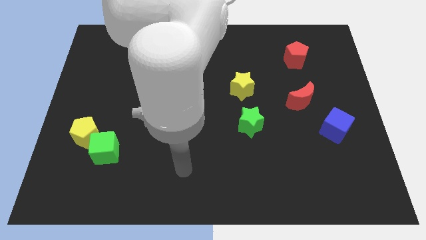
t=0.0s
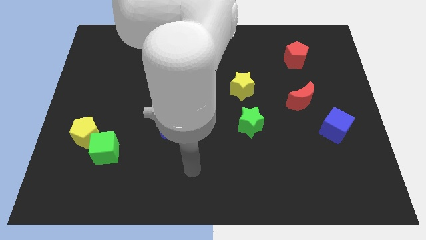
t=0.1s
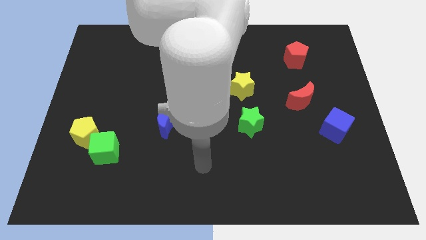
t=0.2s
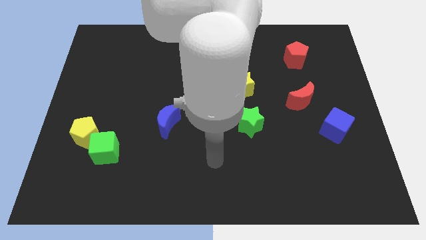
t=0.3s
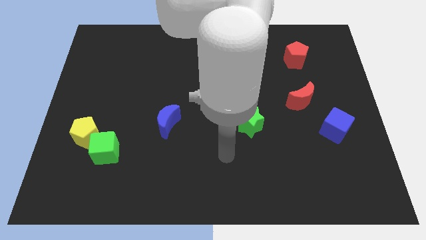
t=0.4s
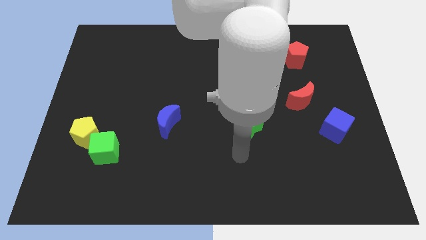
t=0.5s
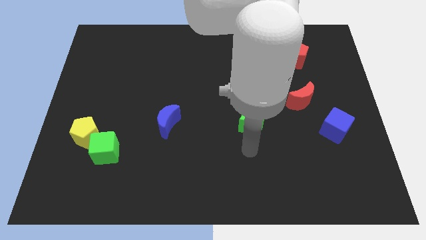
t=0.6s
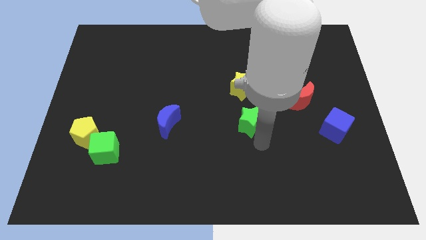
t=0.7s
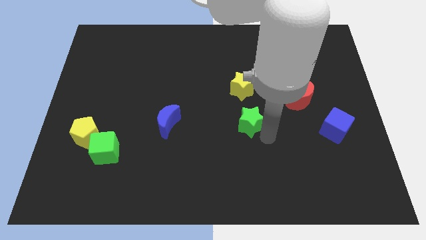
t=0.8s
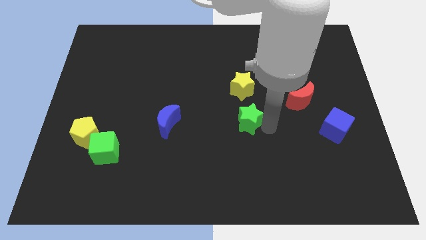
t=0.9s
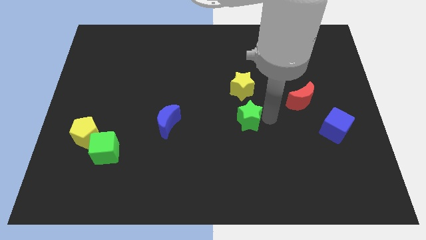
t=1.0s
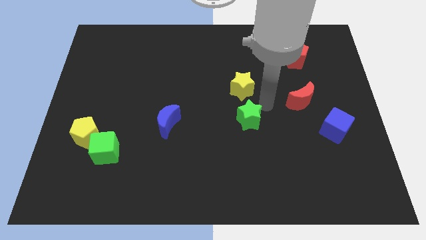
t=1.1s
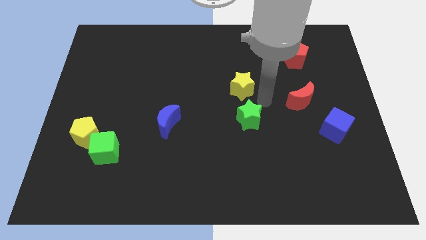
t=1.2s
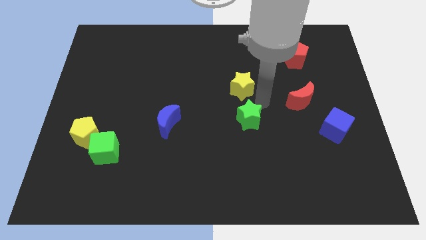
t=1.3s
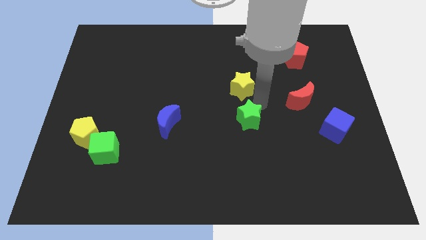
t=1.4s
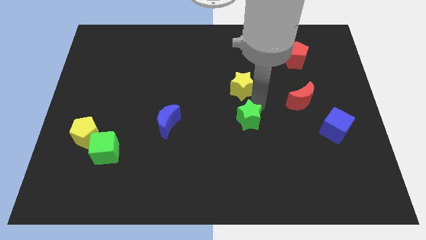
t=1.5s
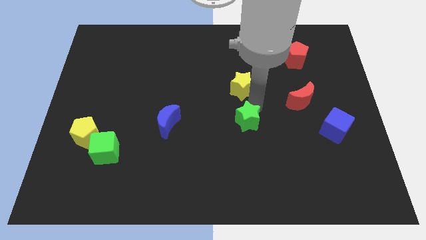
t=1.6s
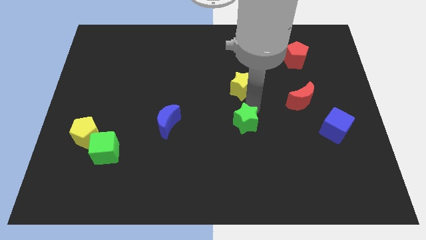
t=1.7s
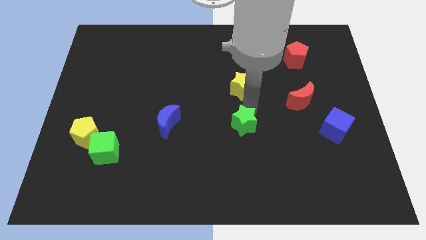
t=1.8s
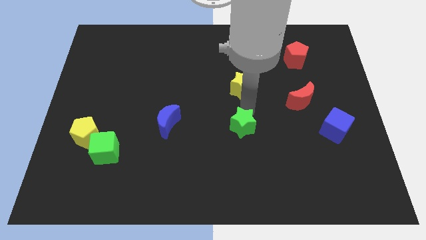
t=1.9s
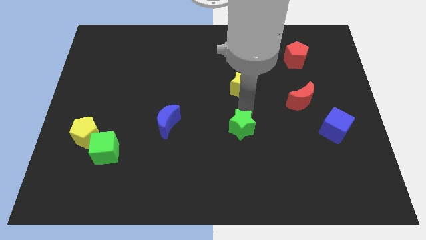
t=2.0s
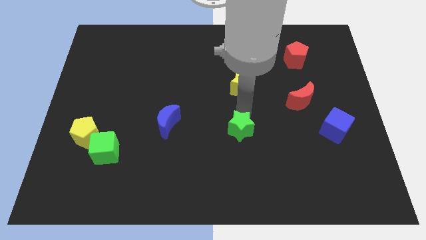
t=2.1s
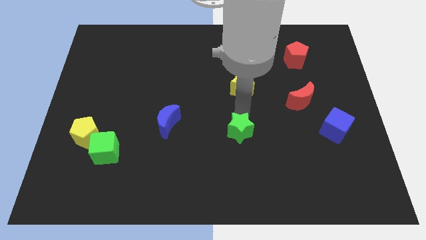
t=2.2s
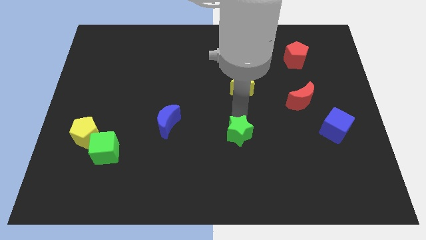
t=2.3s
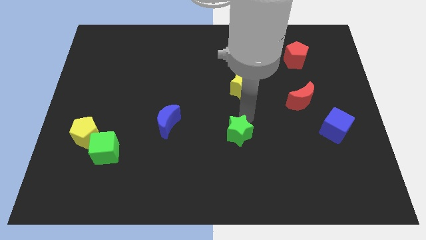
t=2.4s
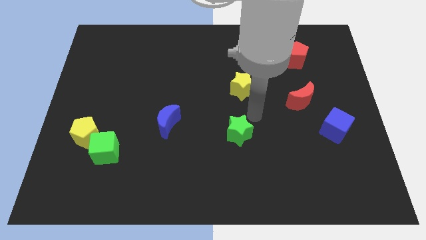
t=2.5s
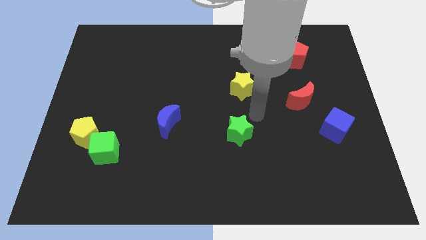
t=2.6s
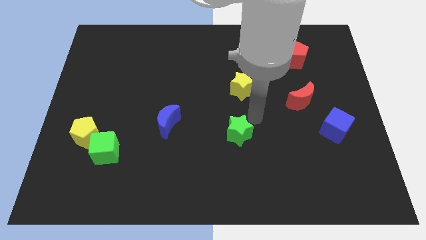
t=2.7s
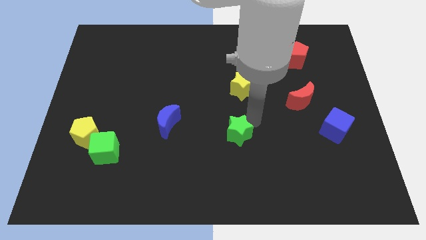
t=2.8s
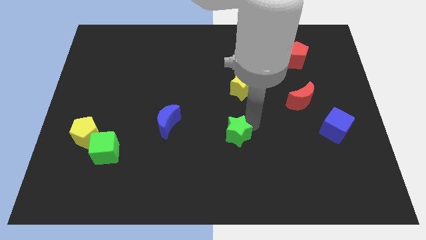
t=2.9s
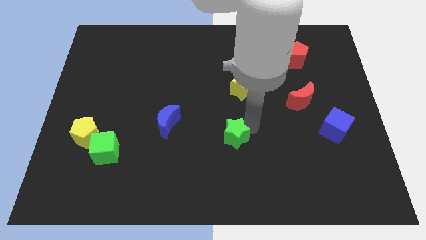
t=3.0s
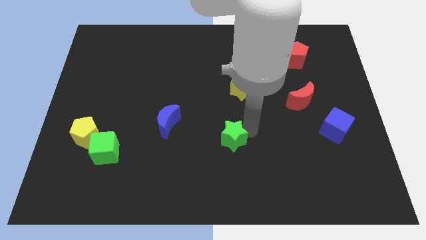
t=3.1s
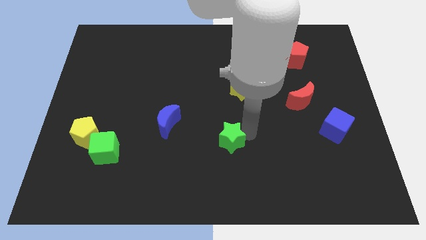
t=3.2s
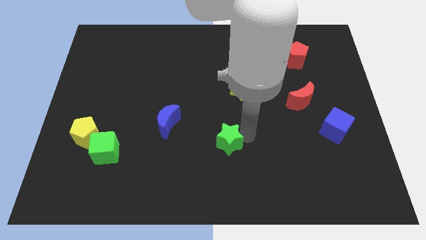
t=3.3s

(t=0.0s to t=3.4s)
push the green star down and to the left diagonally slightly

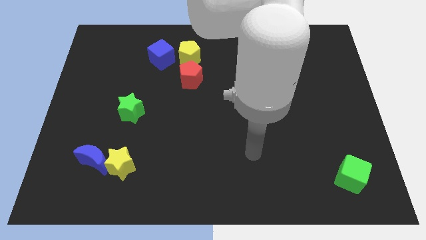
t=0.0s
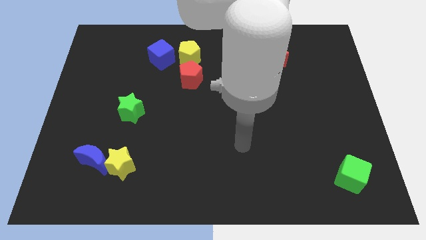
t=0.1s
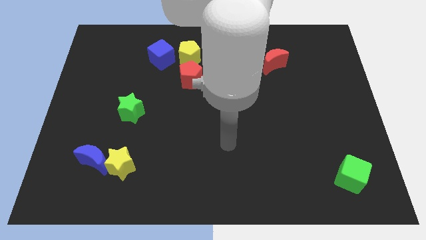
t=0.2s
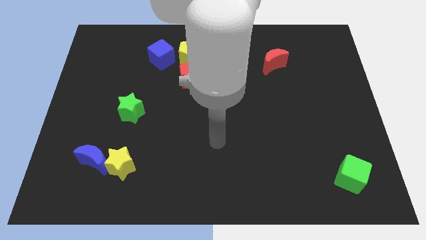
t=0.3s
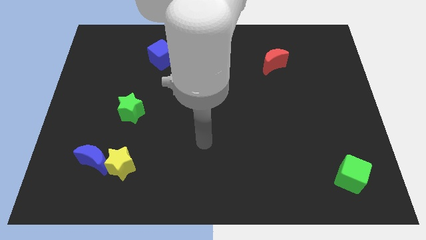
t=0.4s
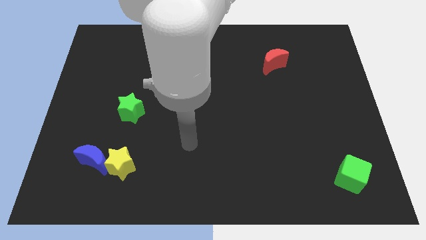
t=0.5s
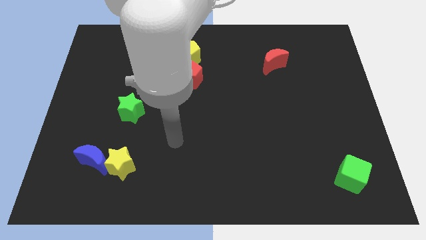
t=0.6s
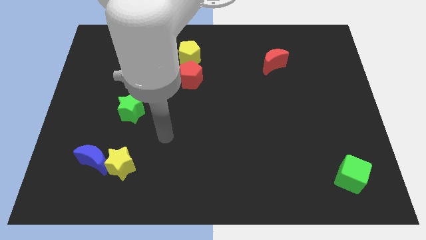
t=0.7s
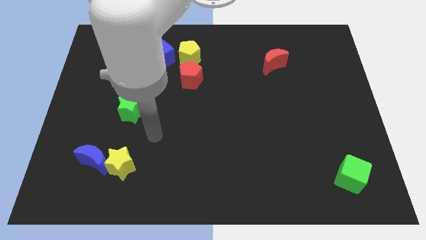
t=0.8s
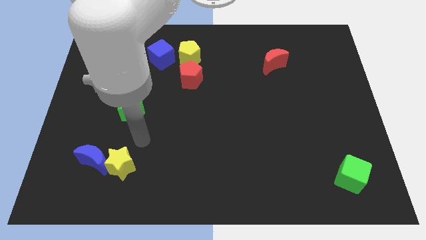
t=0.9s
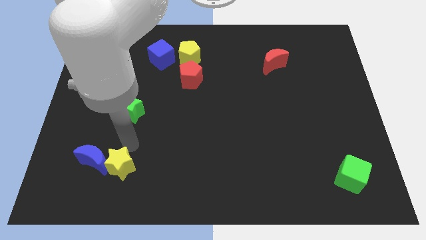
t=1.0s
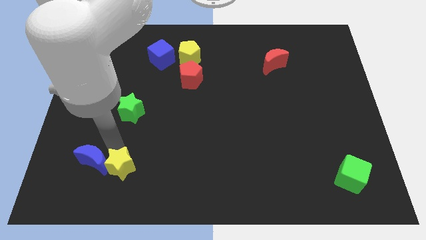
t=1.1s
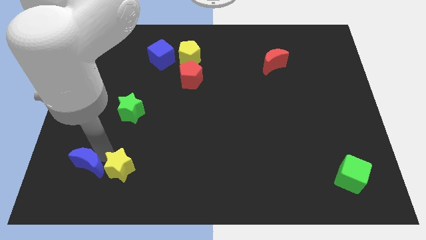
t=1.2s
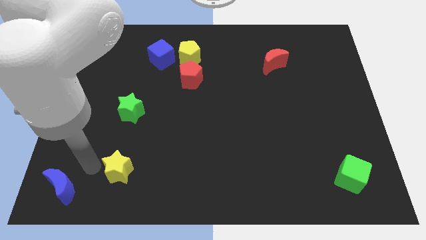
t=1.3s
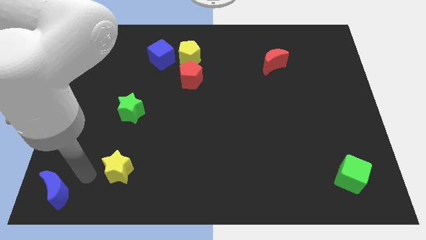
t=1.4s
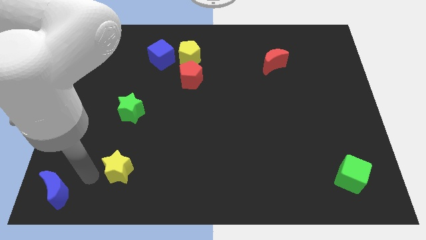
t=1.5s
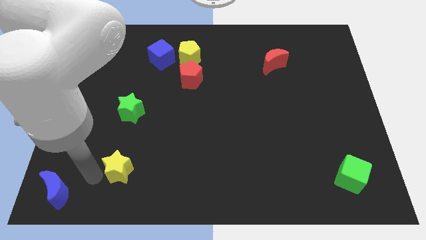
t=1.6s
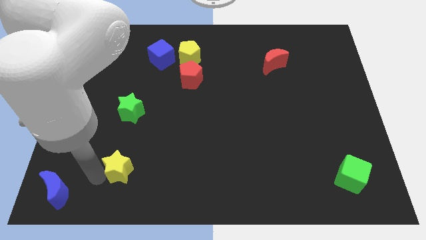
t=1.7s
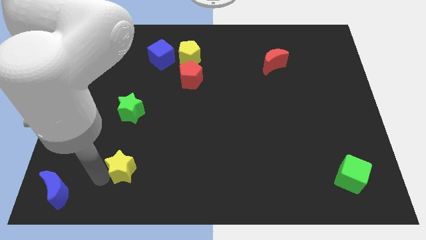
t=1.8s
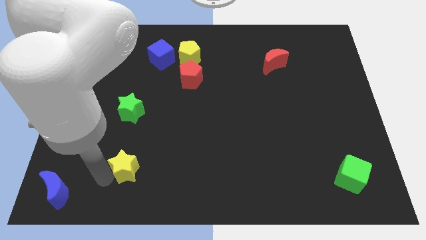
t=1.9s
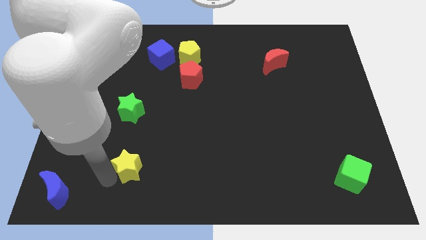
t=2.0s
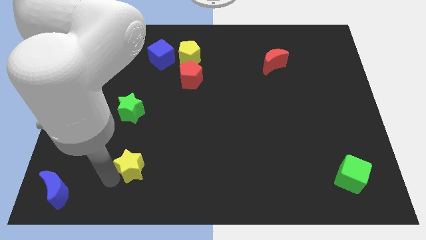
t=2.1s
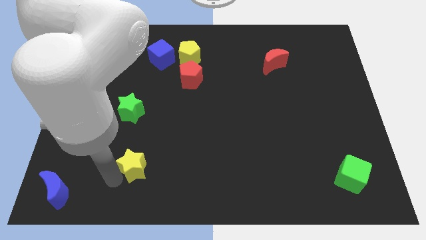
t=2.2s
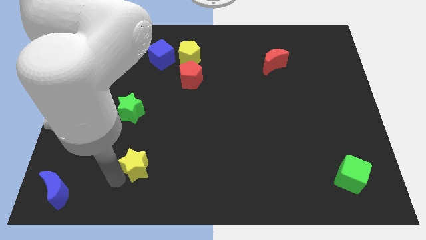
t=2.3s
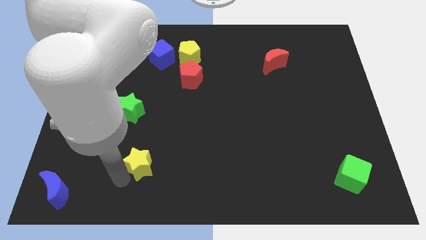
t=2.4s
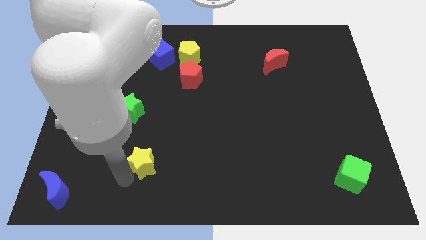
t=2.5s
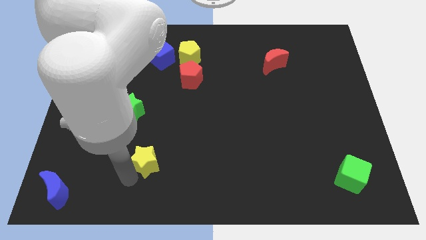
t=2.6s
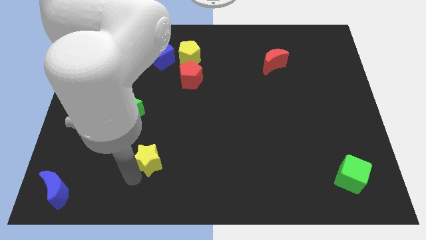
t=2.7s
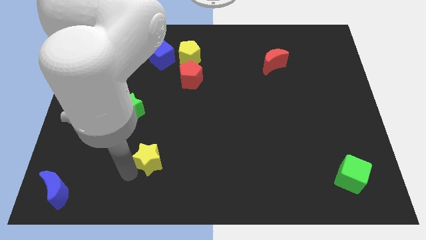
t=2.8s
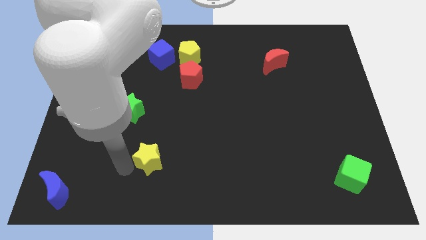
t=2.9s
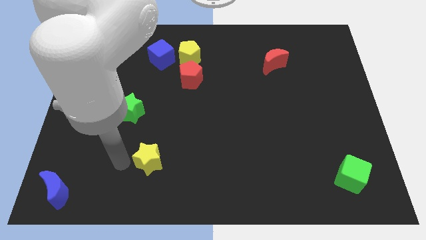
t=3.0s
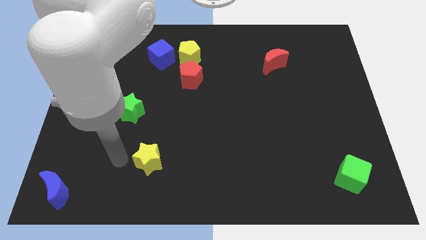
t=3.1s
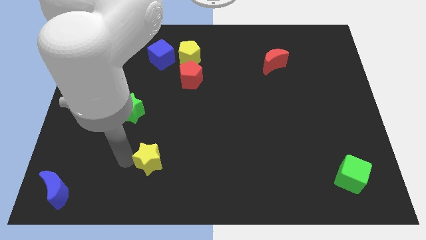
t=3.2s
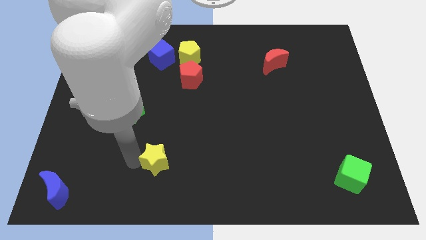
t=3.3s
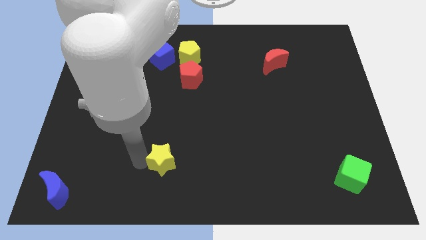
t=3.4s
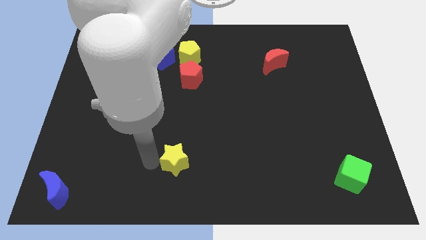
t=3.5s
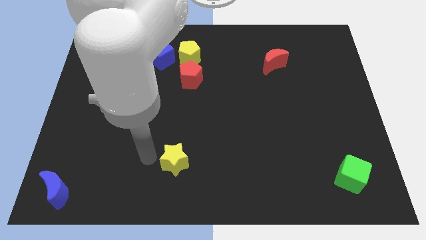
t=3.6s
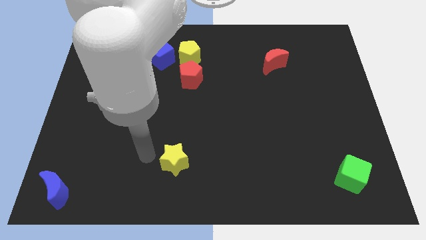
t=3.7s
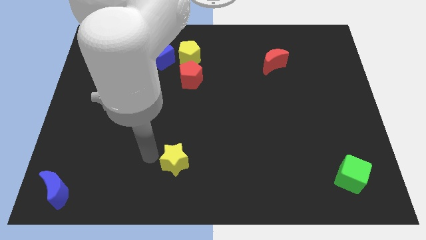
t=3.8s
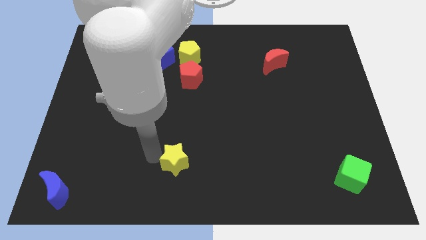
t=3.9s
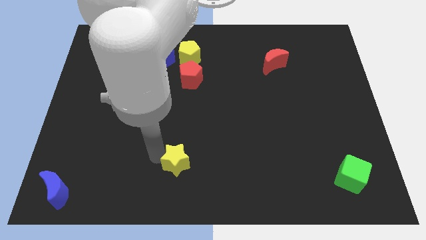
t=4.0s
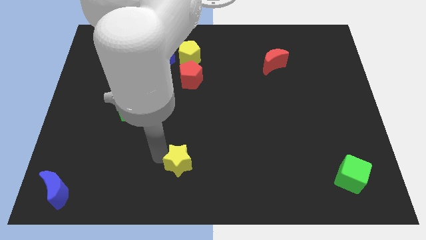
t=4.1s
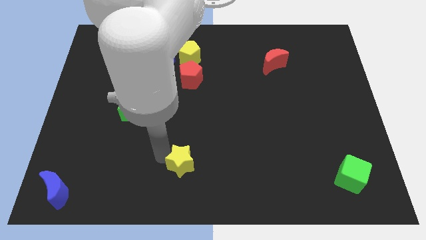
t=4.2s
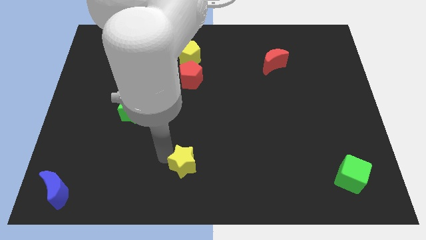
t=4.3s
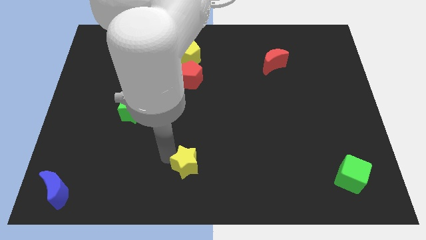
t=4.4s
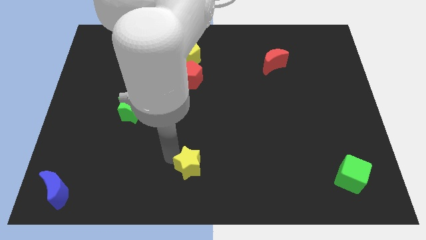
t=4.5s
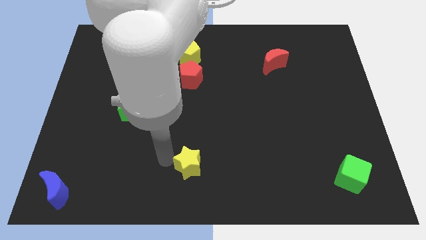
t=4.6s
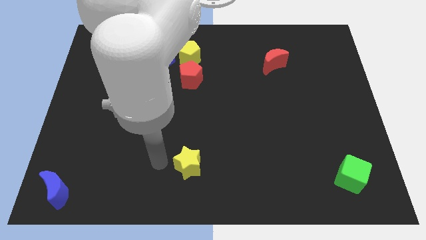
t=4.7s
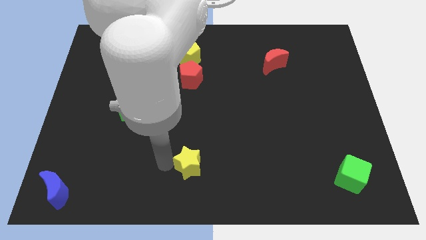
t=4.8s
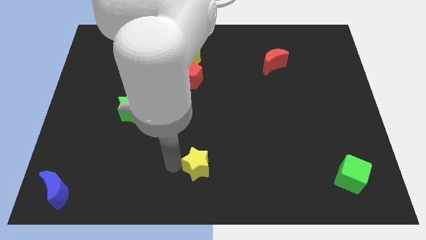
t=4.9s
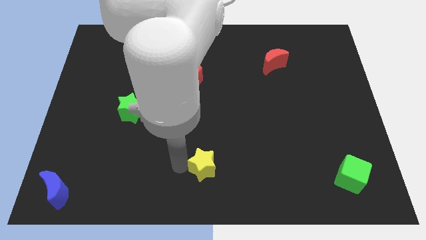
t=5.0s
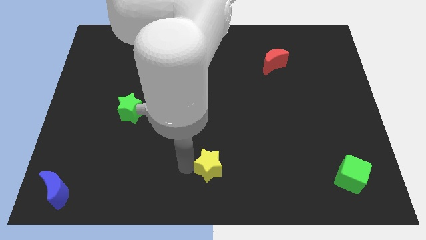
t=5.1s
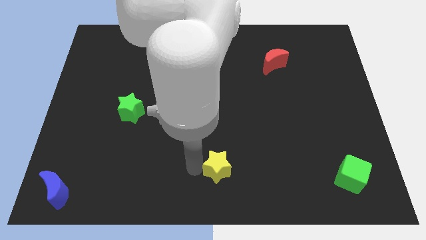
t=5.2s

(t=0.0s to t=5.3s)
slide the yellow star to the right
